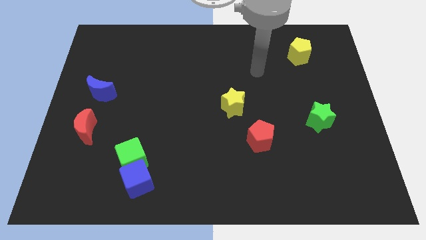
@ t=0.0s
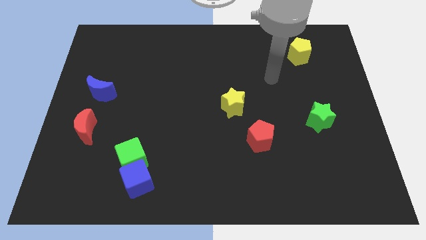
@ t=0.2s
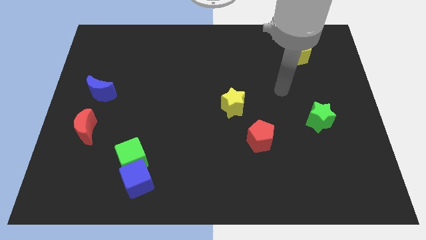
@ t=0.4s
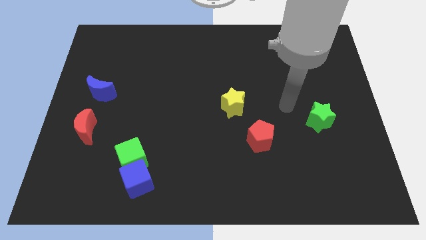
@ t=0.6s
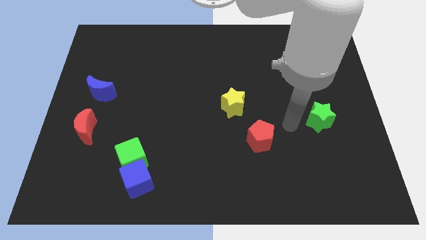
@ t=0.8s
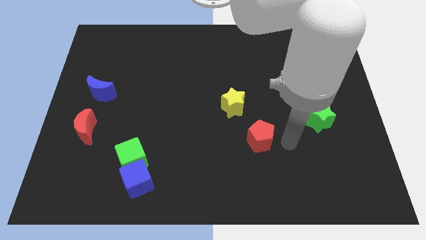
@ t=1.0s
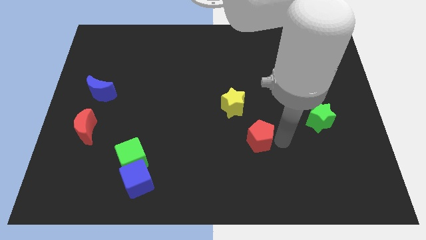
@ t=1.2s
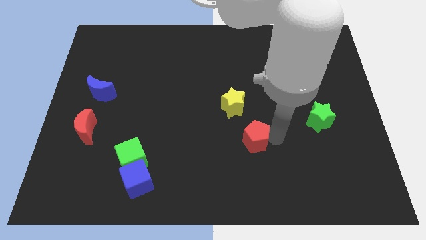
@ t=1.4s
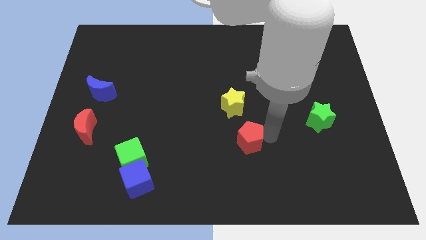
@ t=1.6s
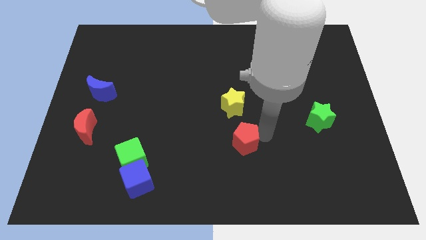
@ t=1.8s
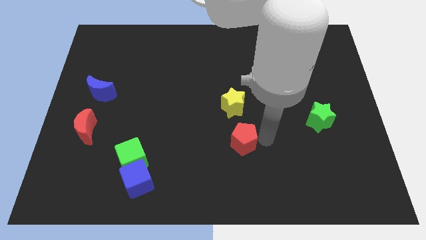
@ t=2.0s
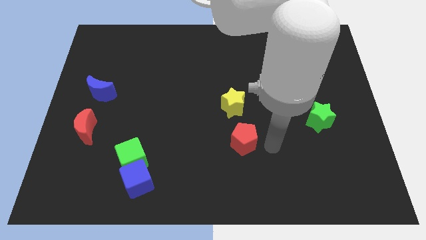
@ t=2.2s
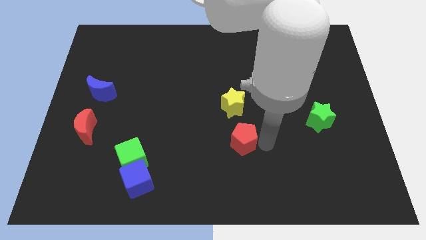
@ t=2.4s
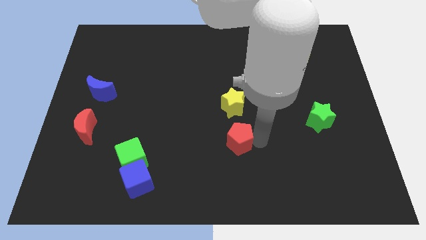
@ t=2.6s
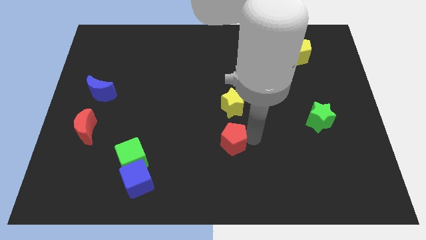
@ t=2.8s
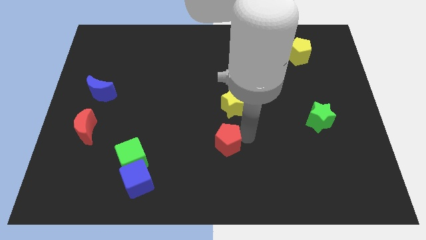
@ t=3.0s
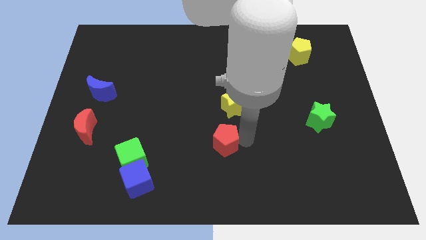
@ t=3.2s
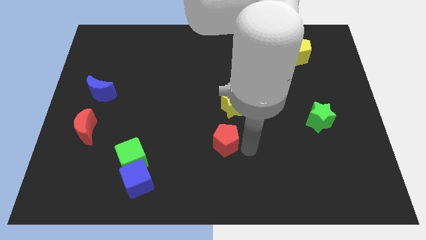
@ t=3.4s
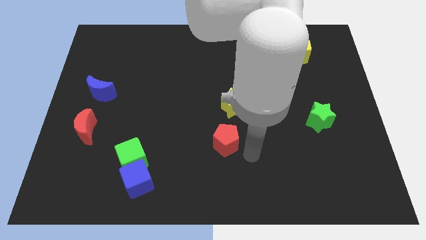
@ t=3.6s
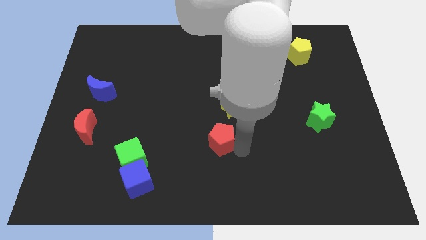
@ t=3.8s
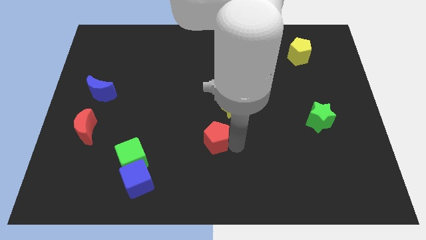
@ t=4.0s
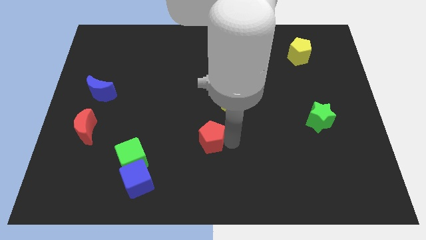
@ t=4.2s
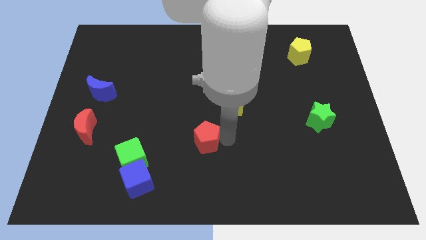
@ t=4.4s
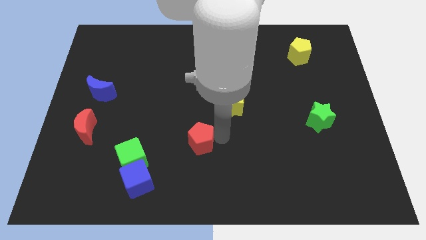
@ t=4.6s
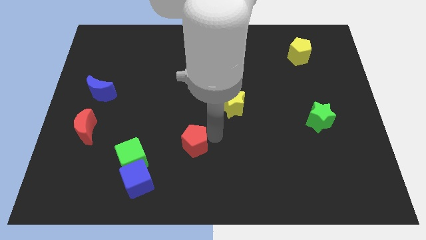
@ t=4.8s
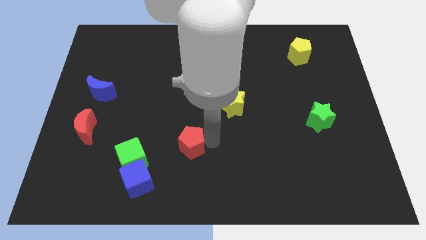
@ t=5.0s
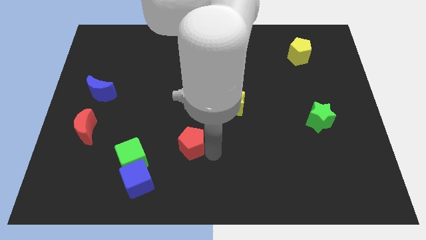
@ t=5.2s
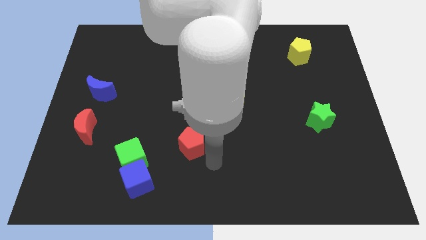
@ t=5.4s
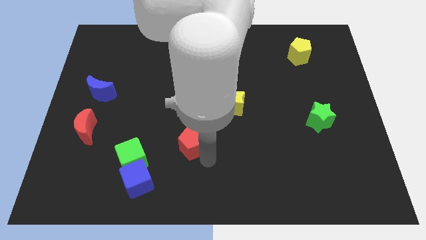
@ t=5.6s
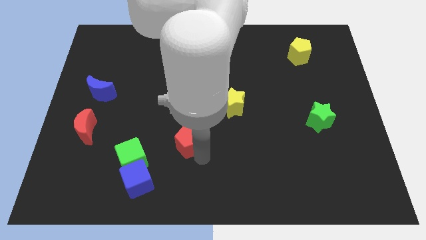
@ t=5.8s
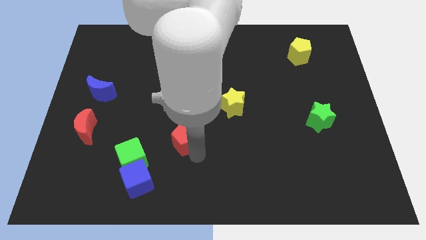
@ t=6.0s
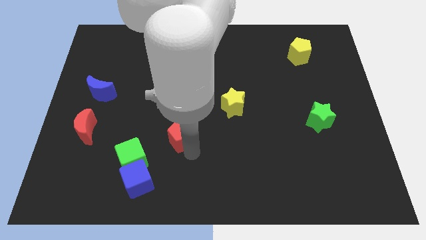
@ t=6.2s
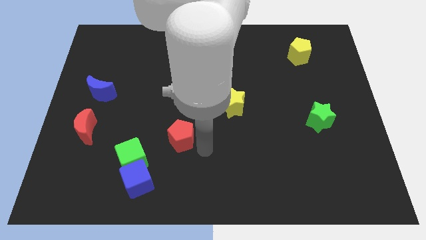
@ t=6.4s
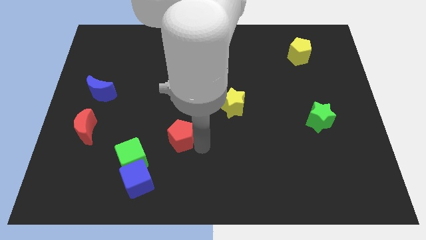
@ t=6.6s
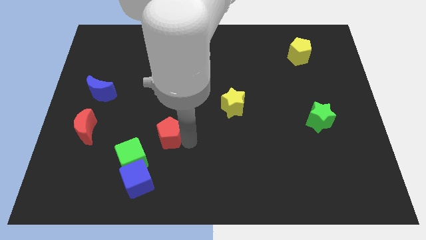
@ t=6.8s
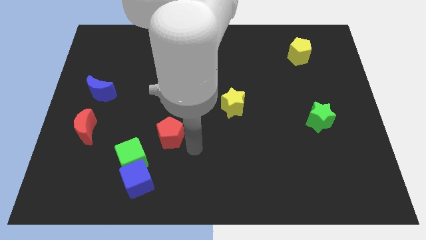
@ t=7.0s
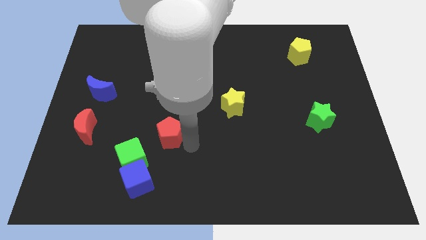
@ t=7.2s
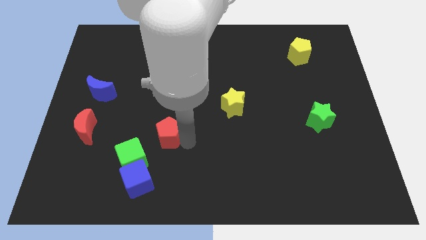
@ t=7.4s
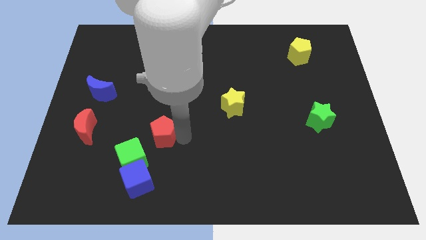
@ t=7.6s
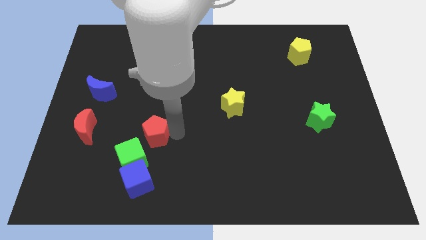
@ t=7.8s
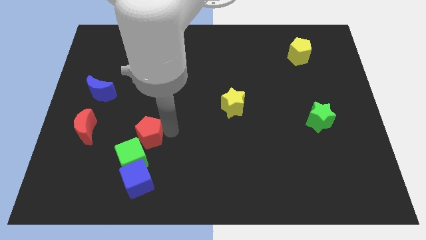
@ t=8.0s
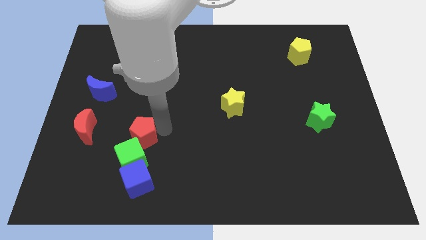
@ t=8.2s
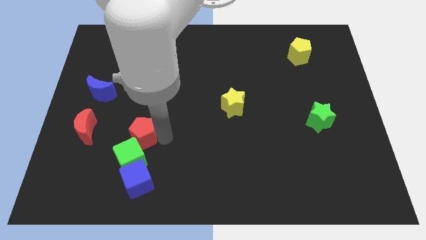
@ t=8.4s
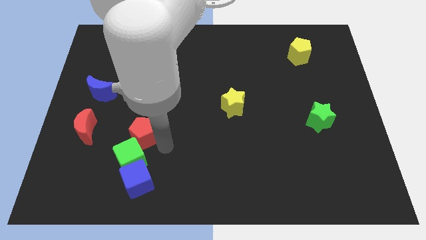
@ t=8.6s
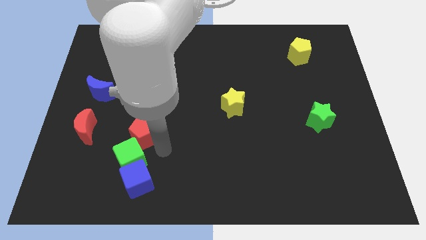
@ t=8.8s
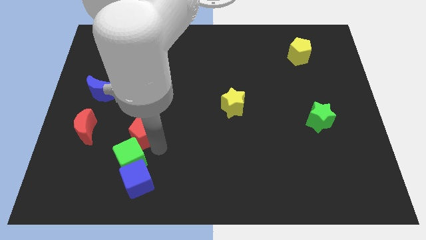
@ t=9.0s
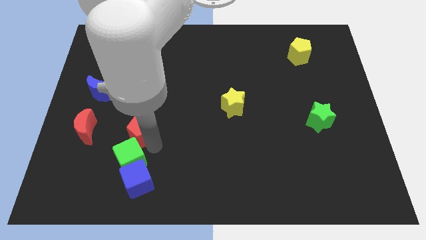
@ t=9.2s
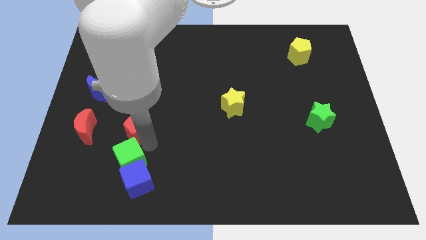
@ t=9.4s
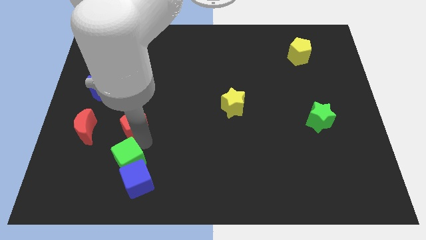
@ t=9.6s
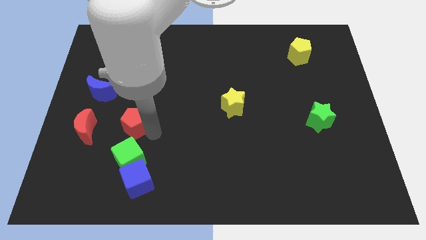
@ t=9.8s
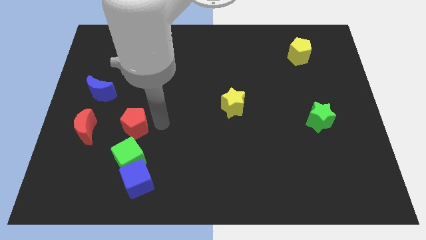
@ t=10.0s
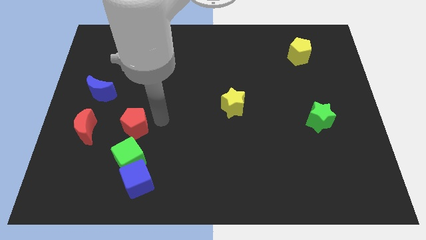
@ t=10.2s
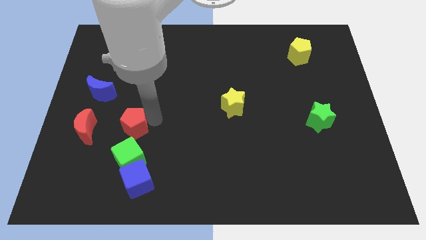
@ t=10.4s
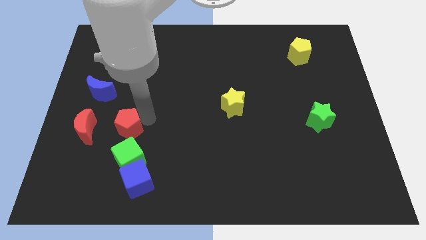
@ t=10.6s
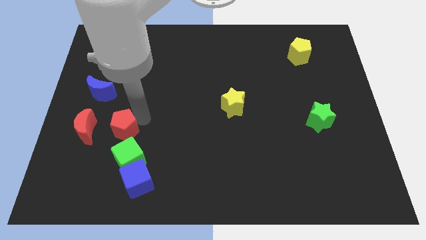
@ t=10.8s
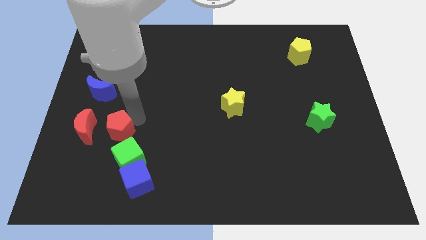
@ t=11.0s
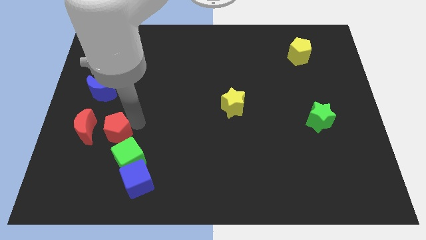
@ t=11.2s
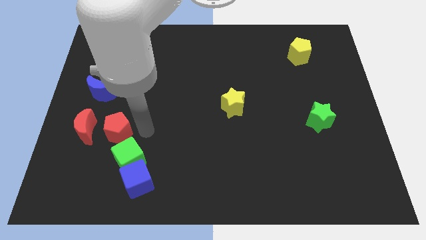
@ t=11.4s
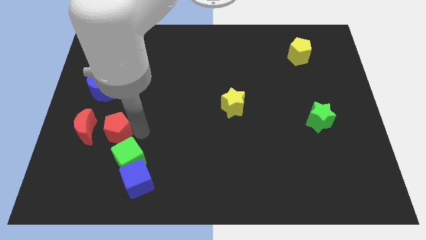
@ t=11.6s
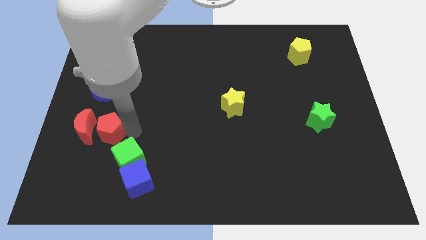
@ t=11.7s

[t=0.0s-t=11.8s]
slide the red pentagon close to the red moon
